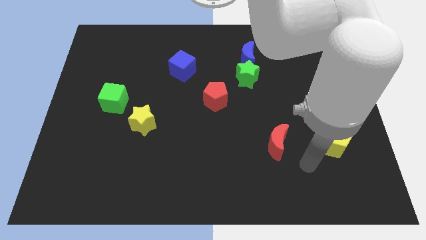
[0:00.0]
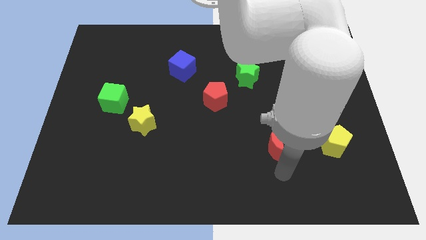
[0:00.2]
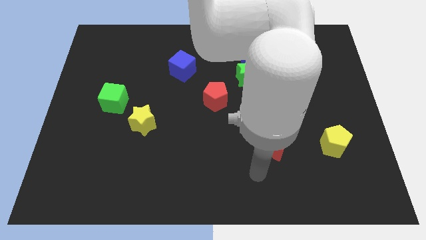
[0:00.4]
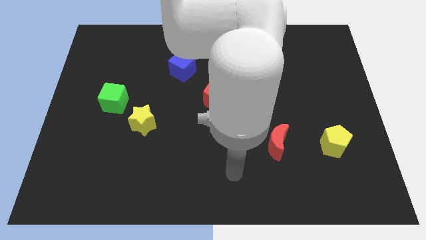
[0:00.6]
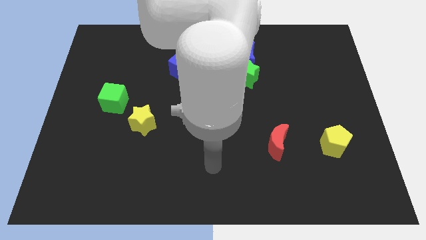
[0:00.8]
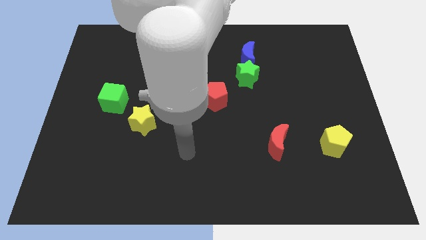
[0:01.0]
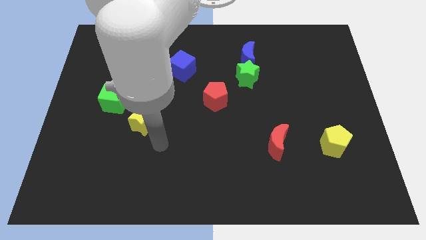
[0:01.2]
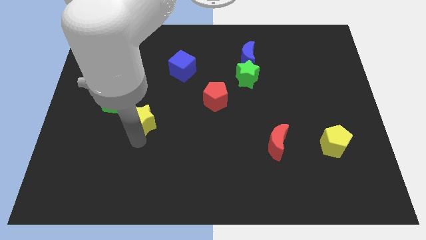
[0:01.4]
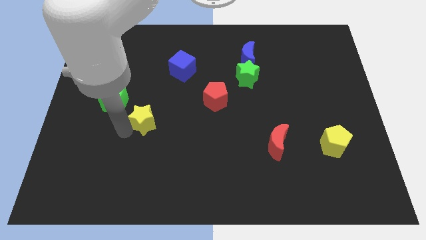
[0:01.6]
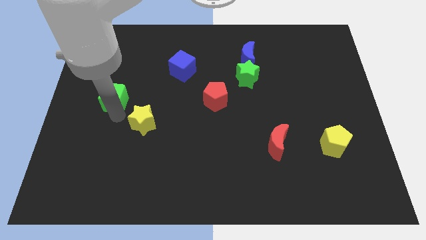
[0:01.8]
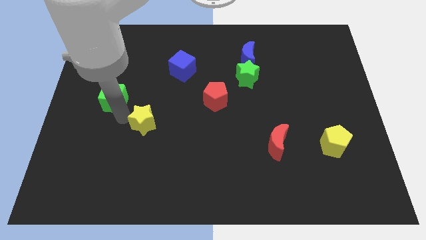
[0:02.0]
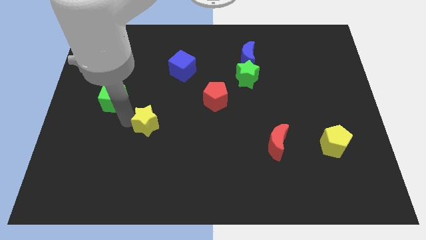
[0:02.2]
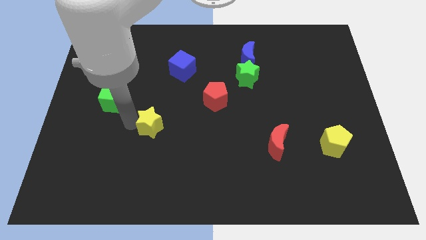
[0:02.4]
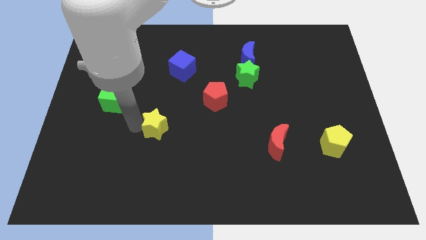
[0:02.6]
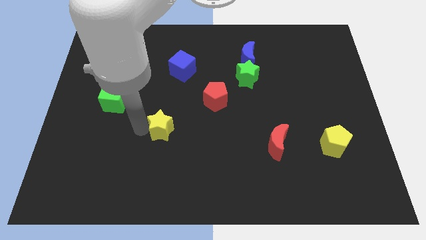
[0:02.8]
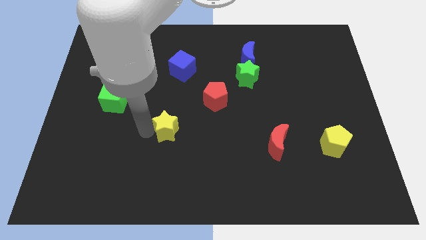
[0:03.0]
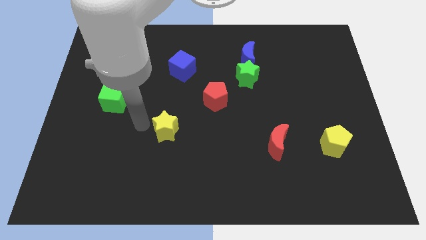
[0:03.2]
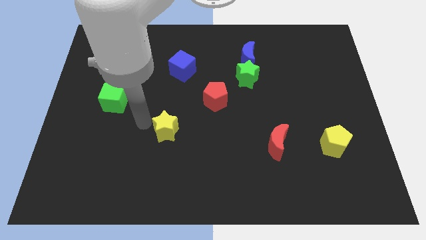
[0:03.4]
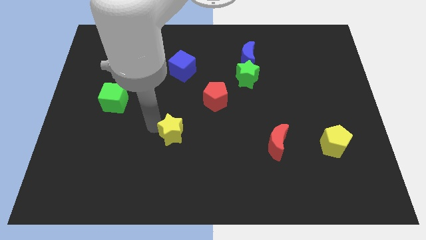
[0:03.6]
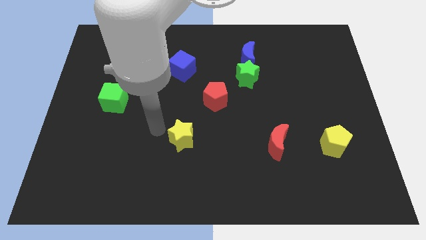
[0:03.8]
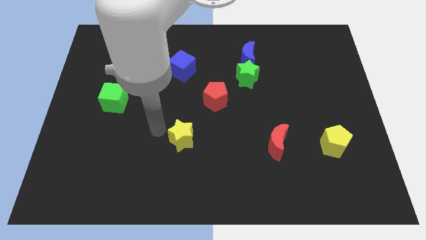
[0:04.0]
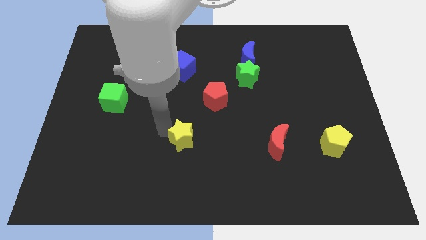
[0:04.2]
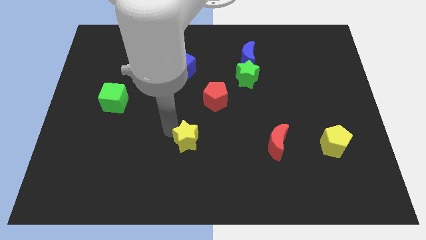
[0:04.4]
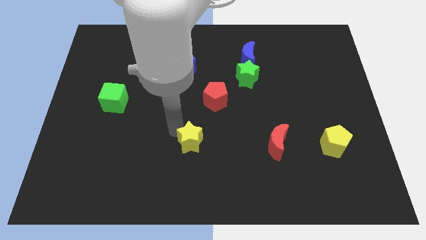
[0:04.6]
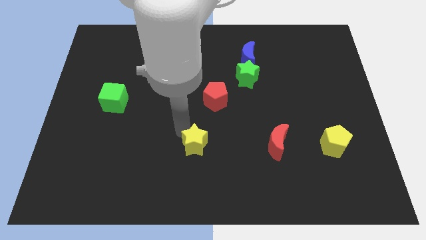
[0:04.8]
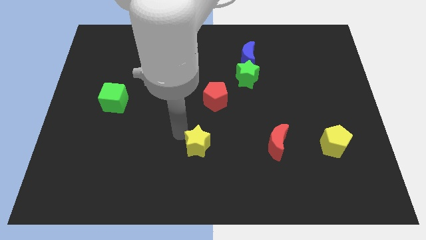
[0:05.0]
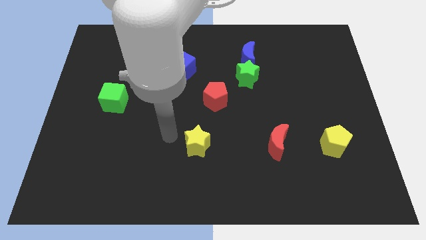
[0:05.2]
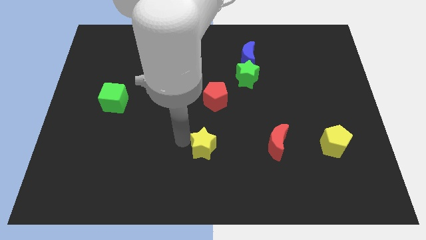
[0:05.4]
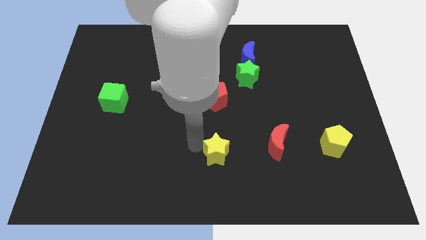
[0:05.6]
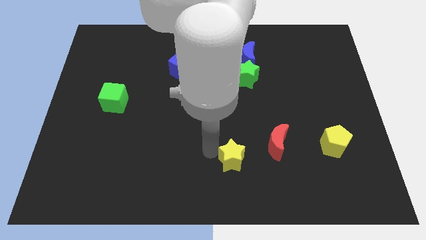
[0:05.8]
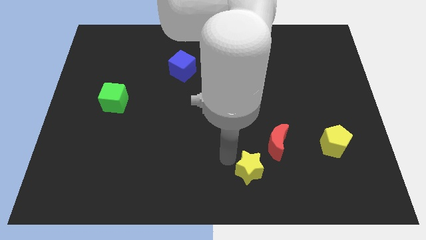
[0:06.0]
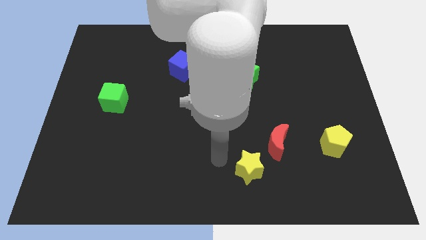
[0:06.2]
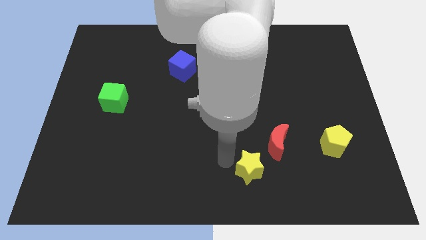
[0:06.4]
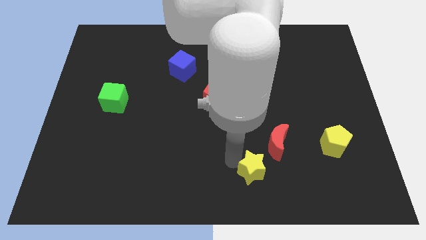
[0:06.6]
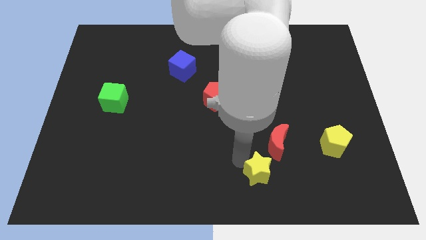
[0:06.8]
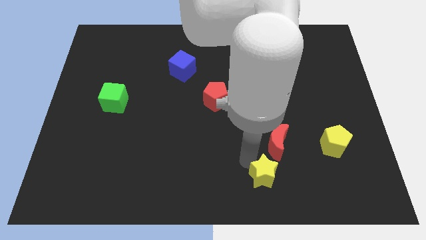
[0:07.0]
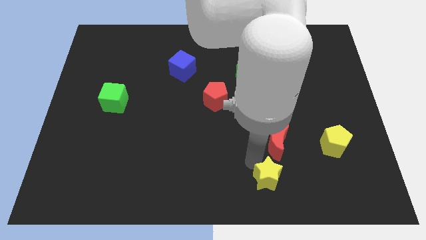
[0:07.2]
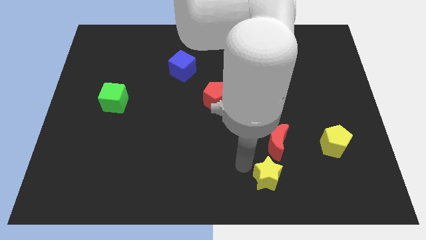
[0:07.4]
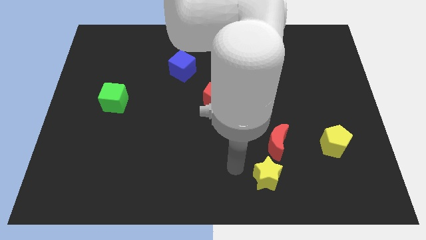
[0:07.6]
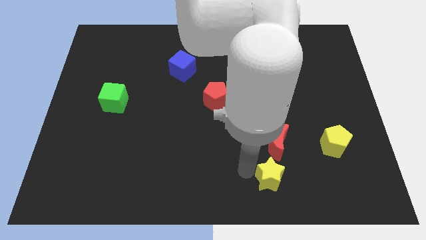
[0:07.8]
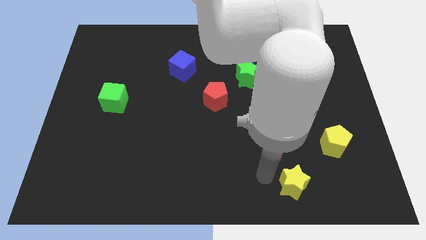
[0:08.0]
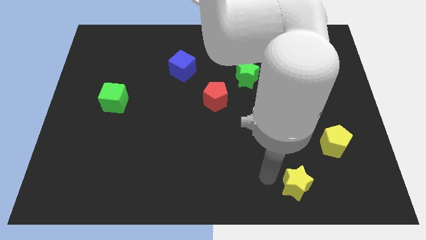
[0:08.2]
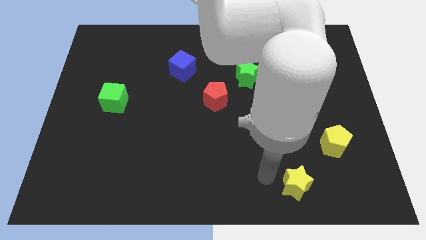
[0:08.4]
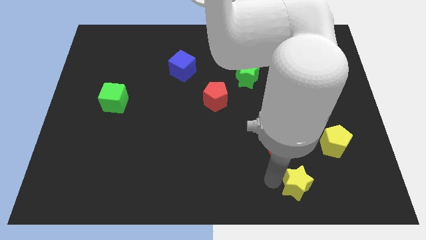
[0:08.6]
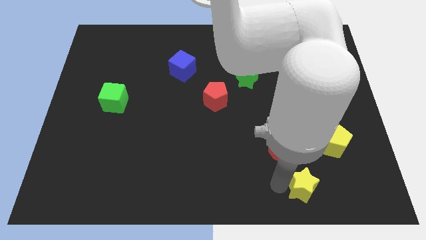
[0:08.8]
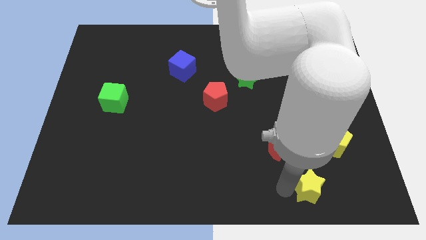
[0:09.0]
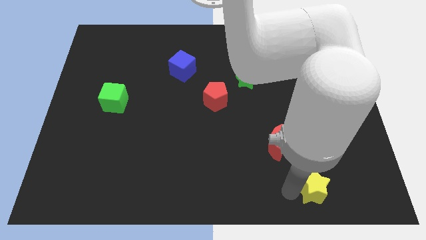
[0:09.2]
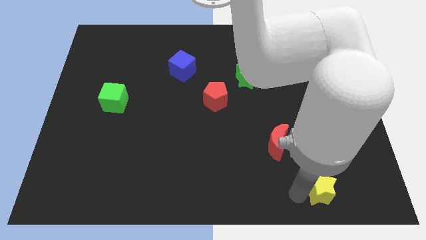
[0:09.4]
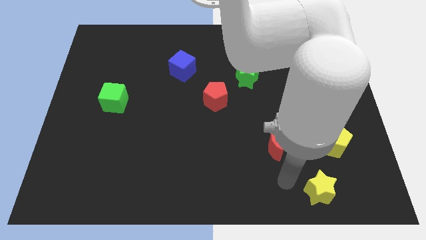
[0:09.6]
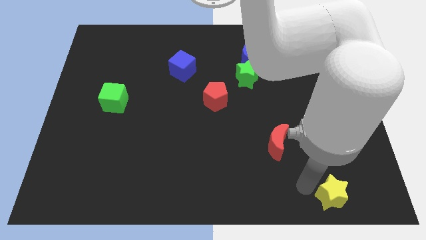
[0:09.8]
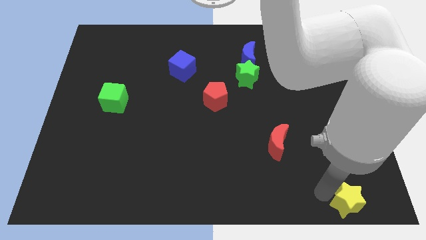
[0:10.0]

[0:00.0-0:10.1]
move the yellow star to the bottom right corner
